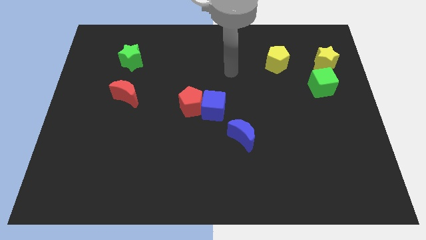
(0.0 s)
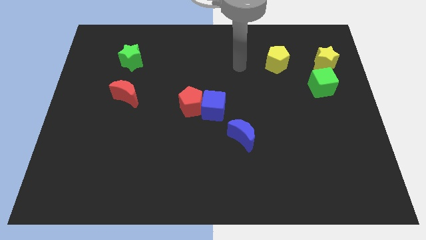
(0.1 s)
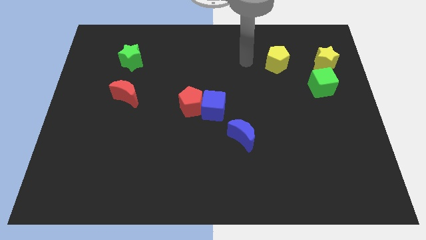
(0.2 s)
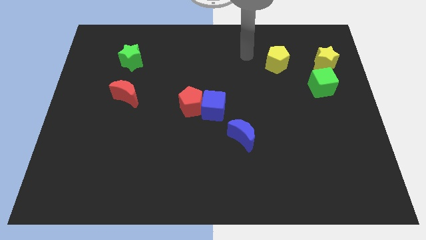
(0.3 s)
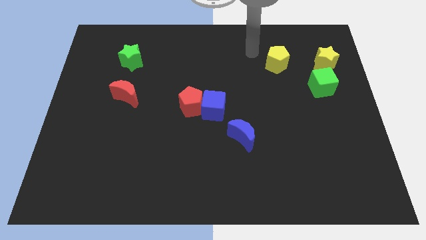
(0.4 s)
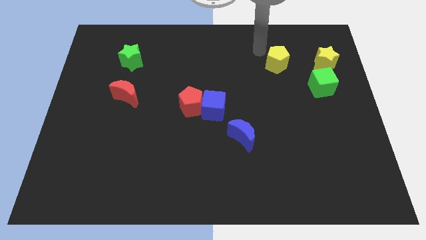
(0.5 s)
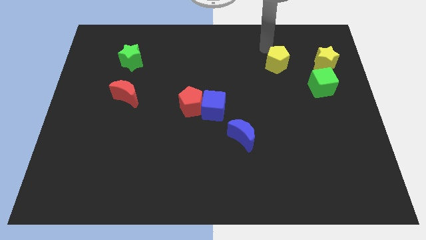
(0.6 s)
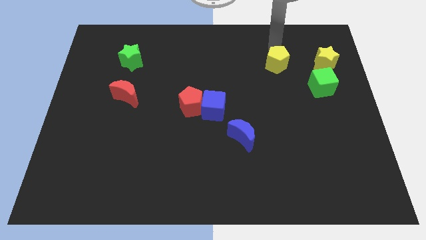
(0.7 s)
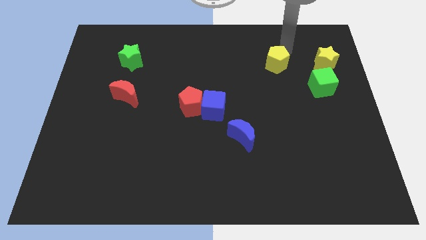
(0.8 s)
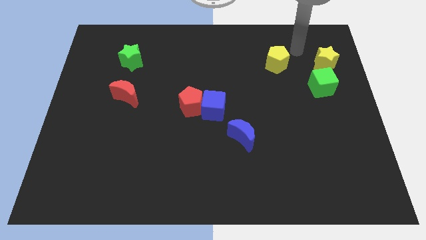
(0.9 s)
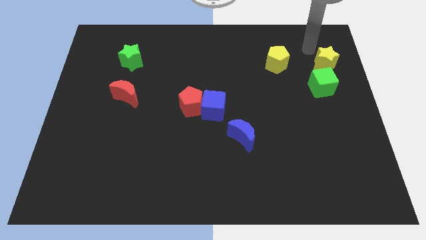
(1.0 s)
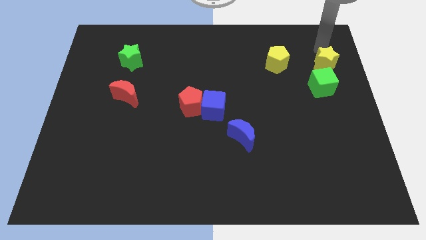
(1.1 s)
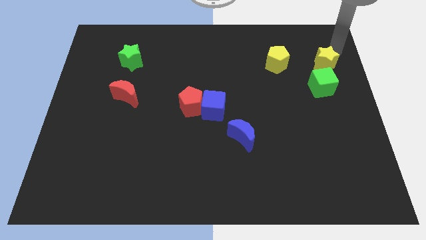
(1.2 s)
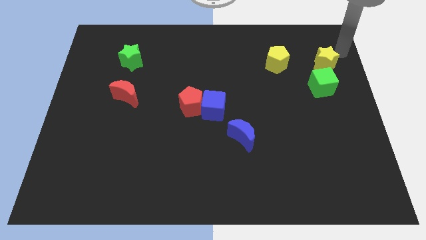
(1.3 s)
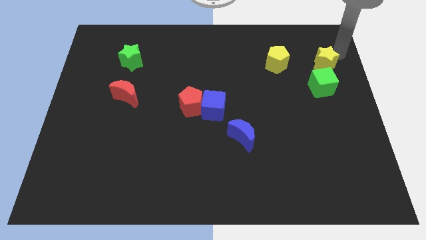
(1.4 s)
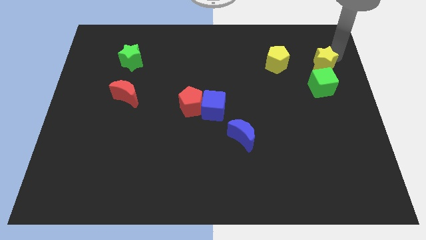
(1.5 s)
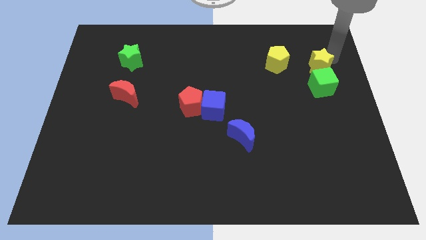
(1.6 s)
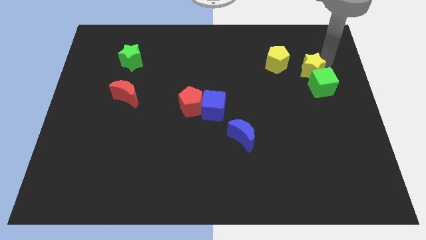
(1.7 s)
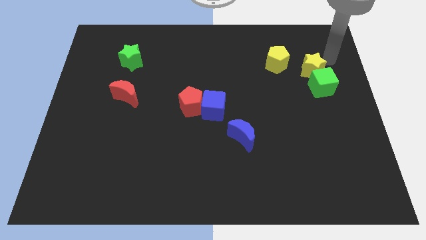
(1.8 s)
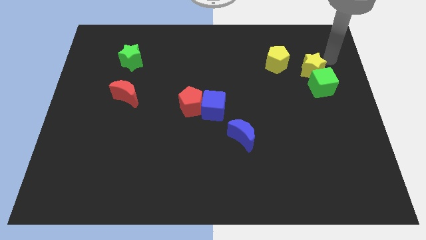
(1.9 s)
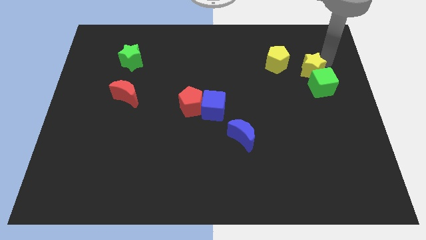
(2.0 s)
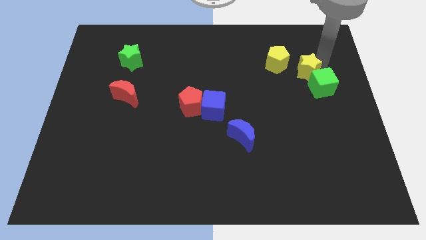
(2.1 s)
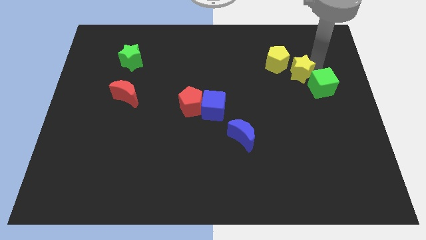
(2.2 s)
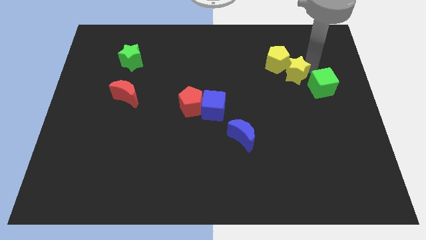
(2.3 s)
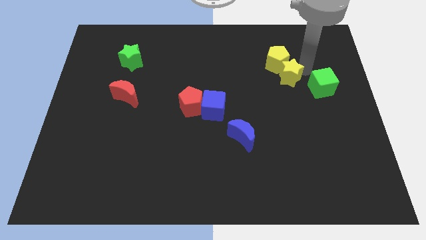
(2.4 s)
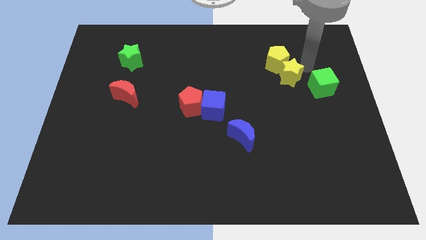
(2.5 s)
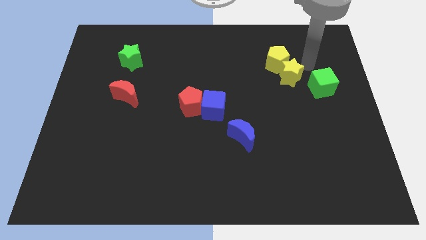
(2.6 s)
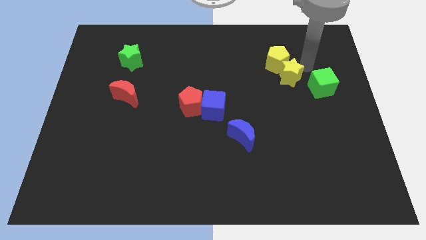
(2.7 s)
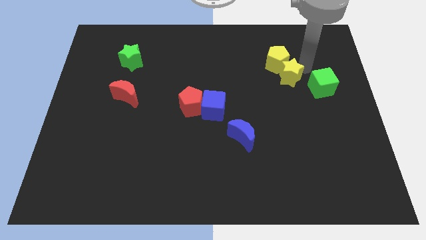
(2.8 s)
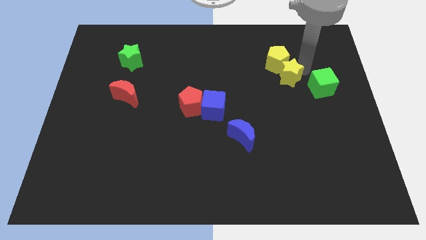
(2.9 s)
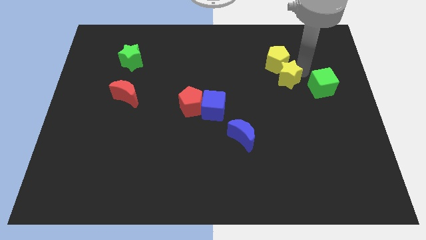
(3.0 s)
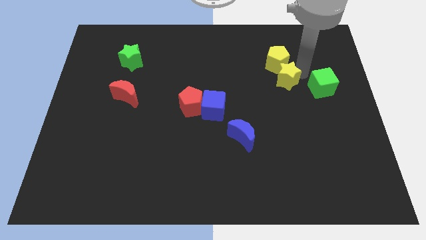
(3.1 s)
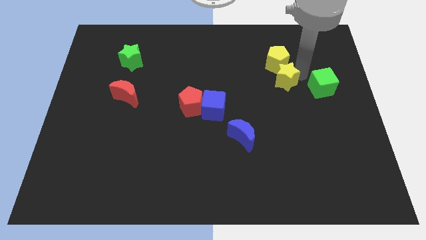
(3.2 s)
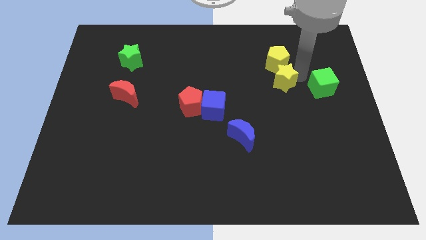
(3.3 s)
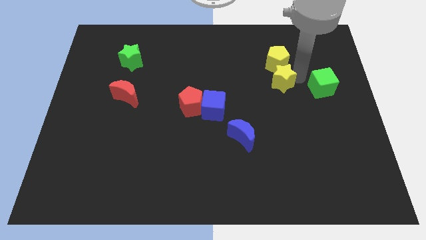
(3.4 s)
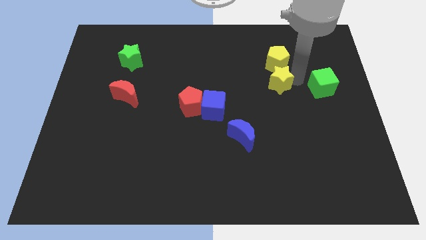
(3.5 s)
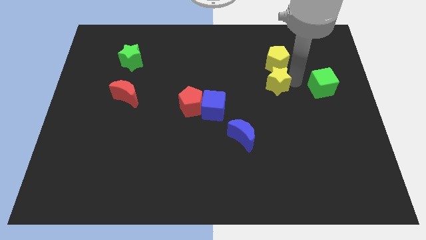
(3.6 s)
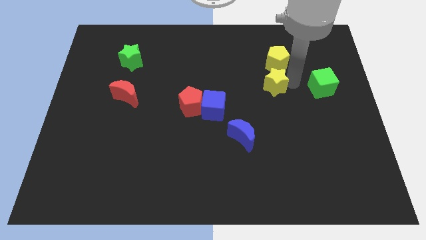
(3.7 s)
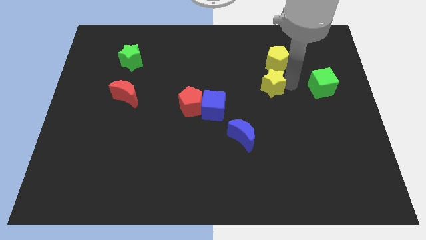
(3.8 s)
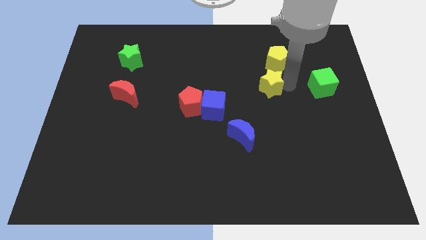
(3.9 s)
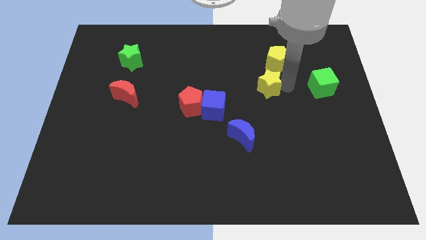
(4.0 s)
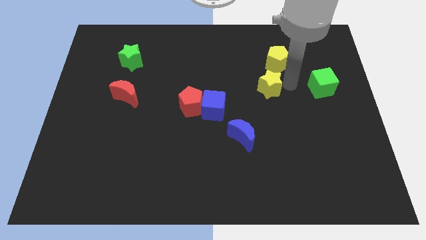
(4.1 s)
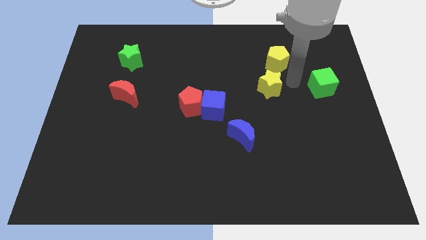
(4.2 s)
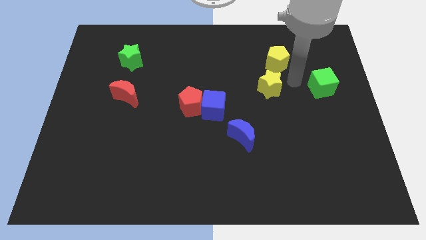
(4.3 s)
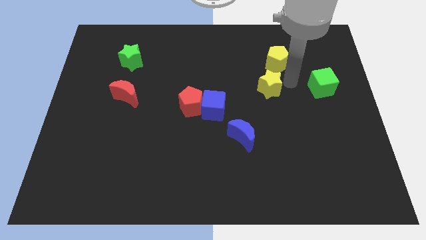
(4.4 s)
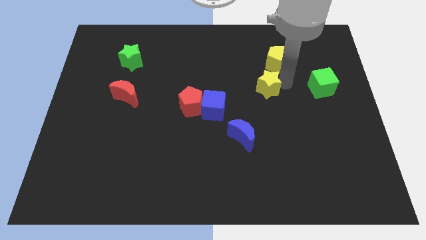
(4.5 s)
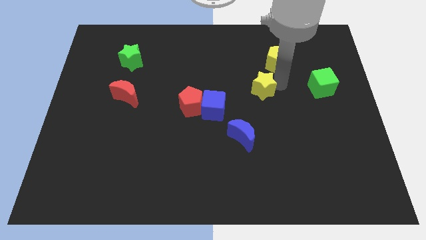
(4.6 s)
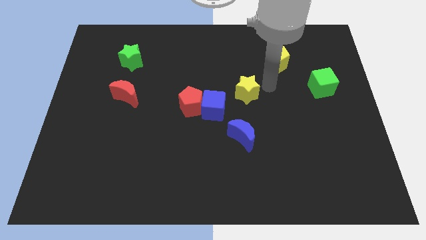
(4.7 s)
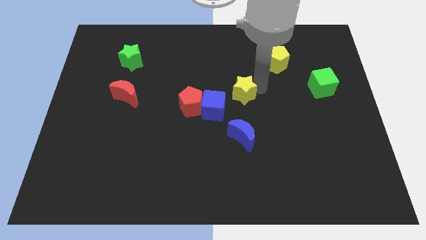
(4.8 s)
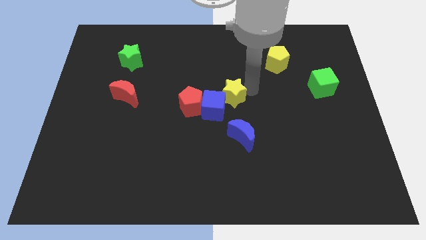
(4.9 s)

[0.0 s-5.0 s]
put the yellow star towards the blue cube

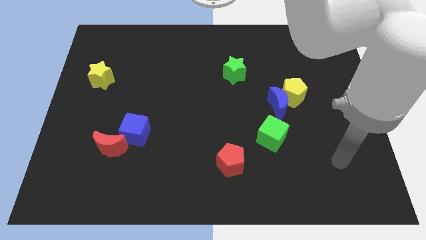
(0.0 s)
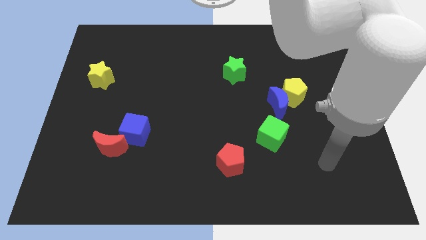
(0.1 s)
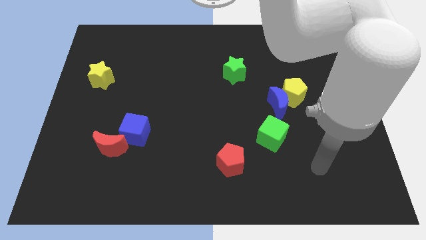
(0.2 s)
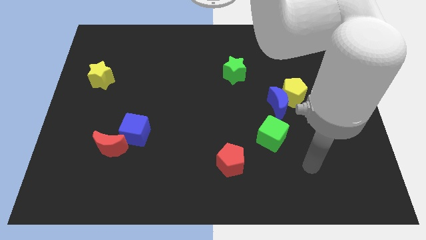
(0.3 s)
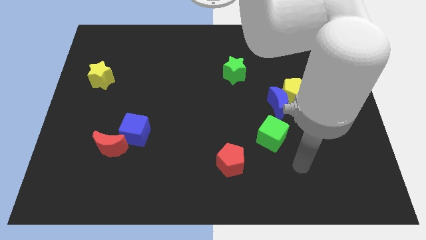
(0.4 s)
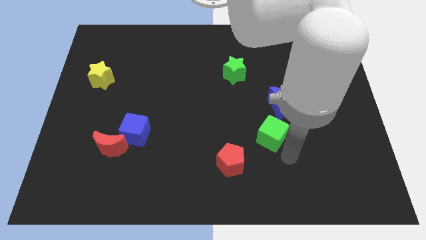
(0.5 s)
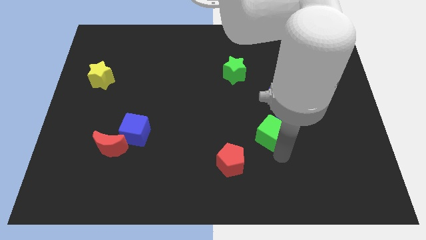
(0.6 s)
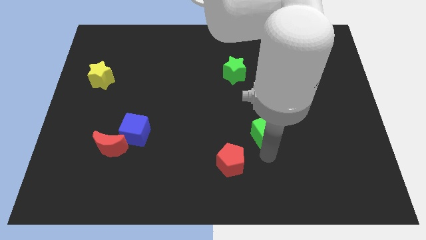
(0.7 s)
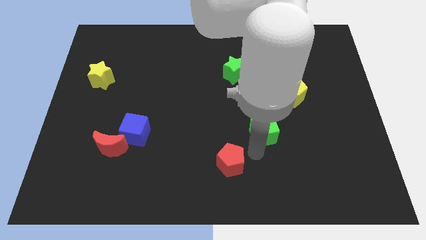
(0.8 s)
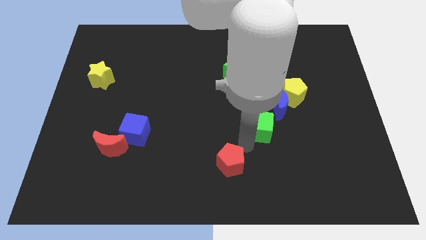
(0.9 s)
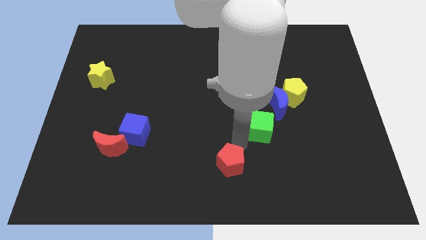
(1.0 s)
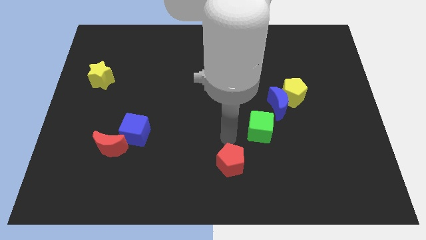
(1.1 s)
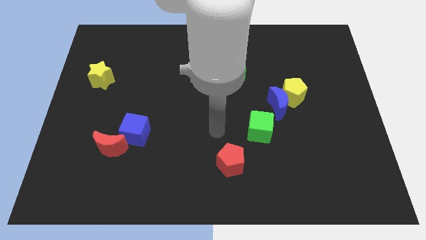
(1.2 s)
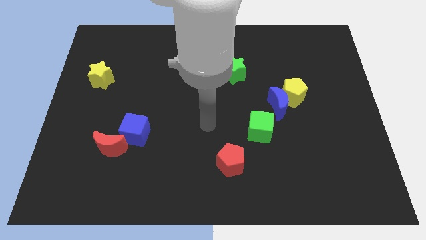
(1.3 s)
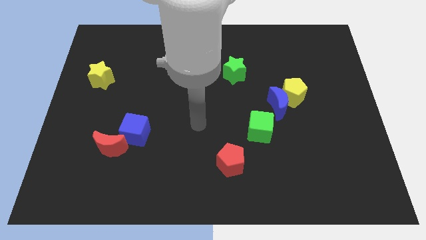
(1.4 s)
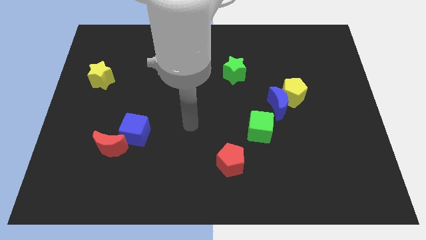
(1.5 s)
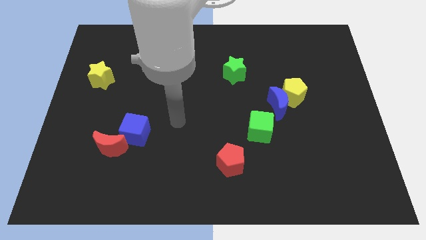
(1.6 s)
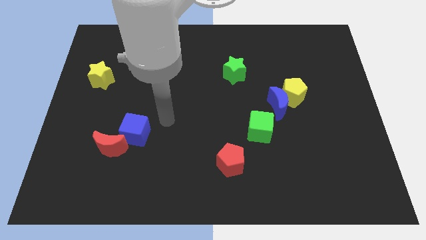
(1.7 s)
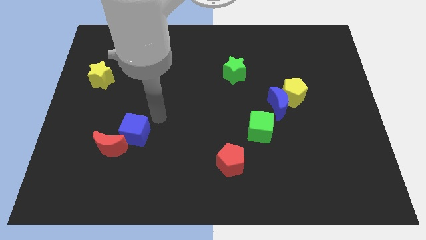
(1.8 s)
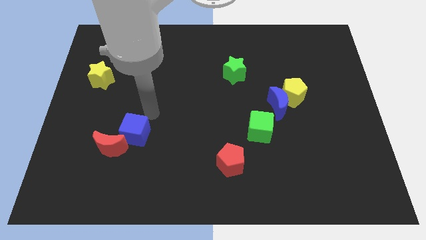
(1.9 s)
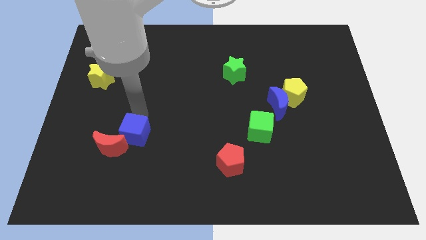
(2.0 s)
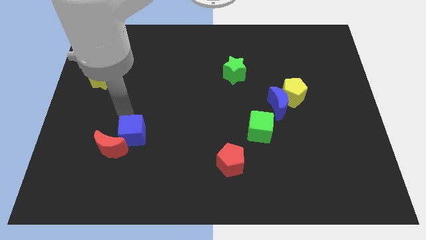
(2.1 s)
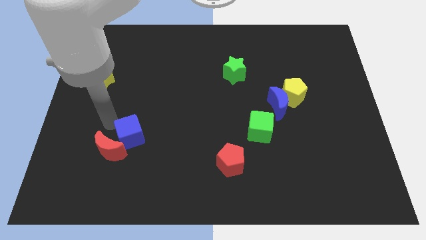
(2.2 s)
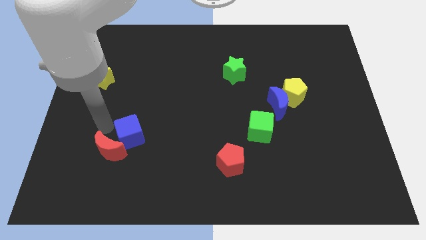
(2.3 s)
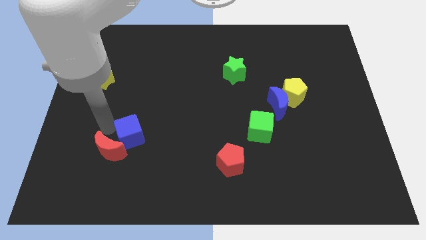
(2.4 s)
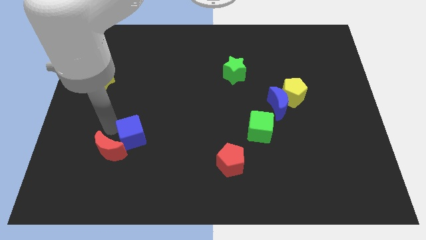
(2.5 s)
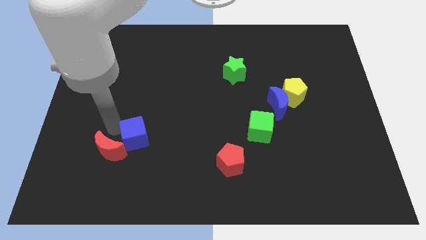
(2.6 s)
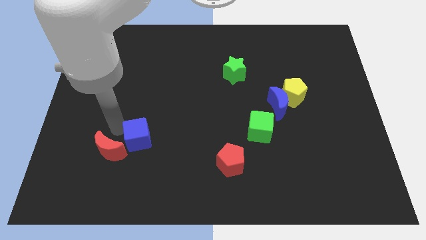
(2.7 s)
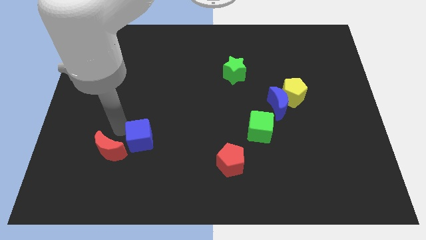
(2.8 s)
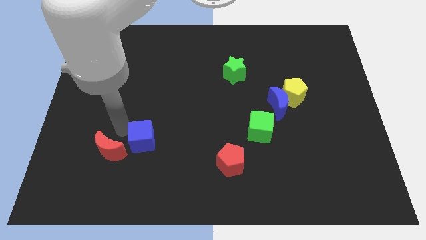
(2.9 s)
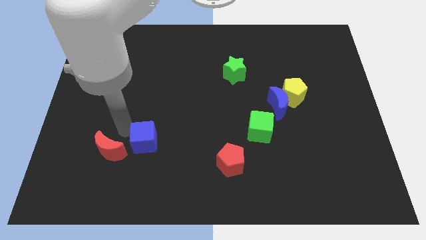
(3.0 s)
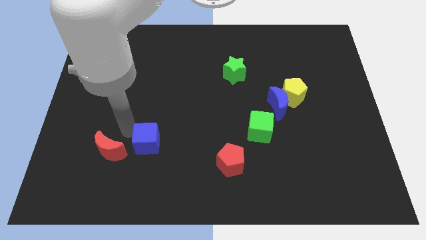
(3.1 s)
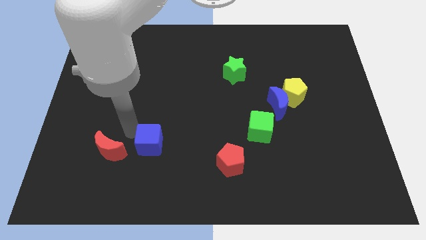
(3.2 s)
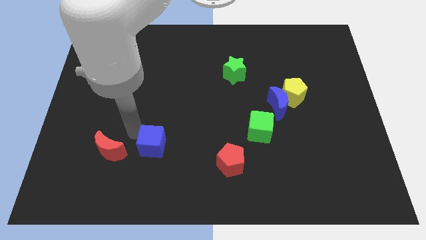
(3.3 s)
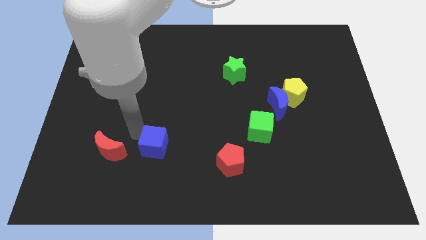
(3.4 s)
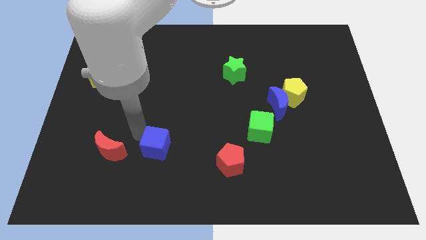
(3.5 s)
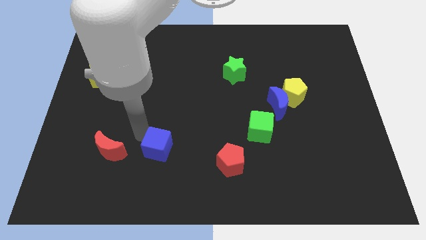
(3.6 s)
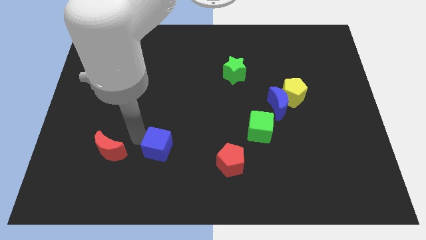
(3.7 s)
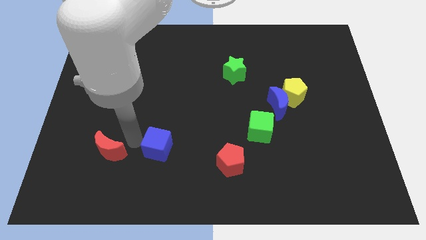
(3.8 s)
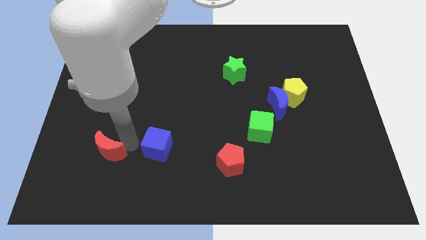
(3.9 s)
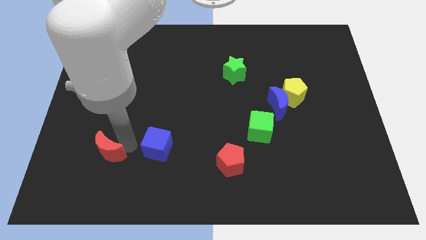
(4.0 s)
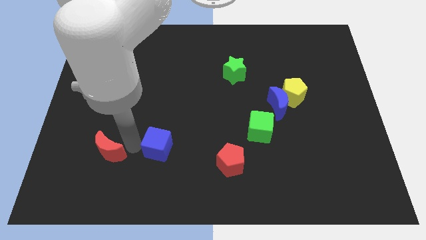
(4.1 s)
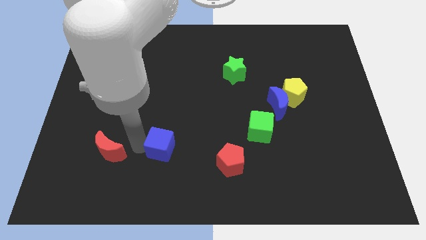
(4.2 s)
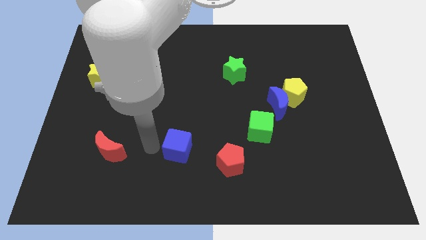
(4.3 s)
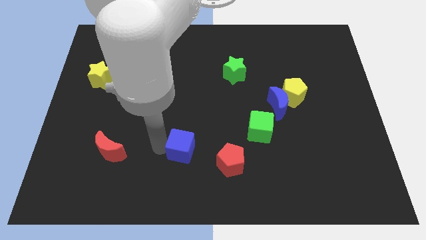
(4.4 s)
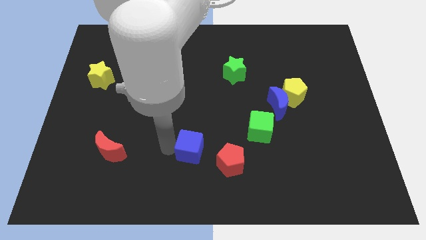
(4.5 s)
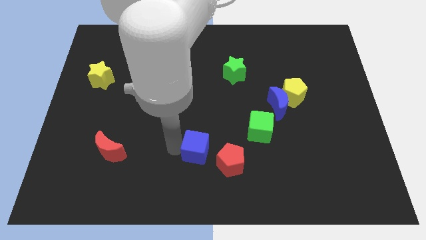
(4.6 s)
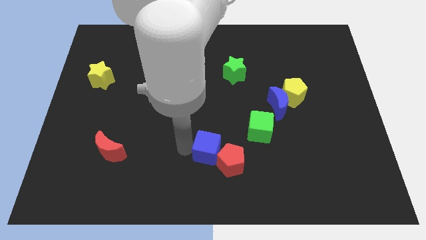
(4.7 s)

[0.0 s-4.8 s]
slide the blue cube towards the red pentagon
